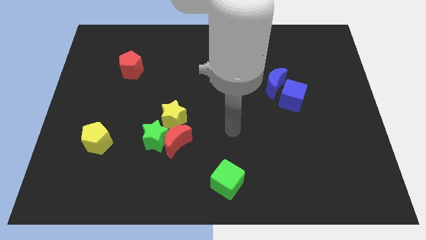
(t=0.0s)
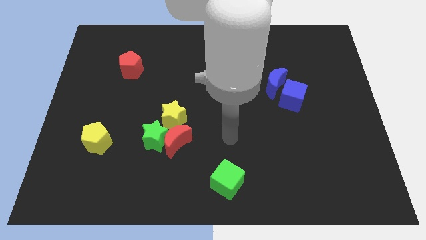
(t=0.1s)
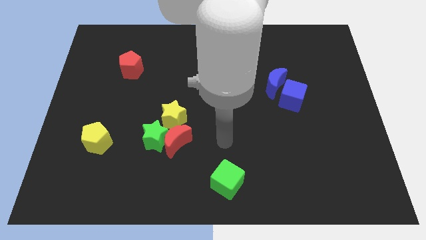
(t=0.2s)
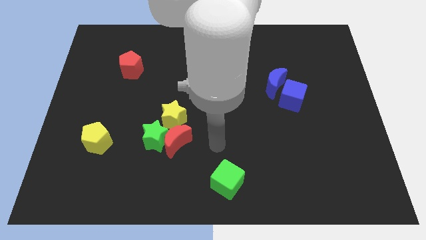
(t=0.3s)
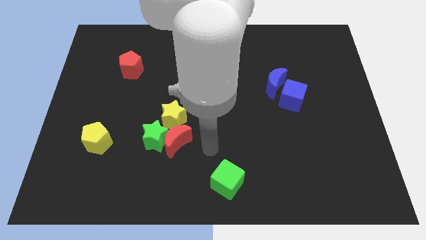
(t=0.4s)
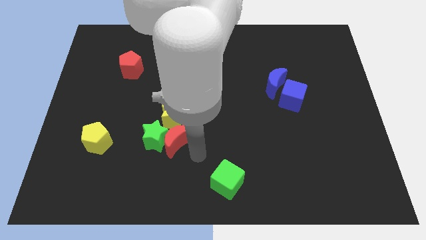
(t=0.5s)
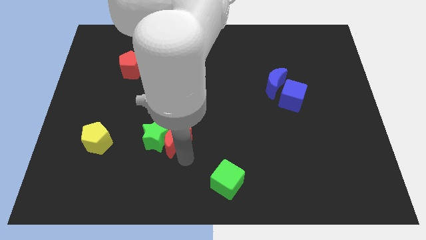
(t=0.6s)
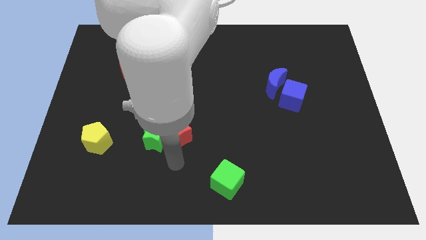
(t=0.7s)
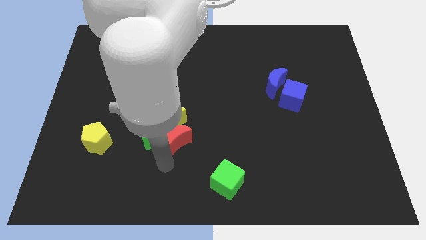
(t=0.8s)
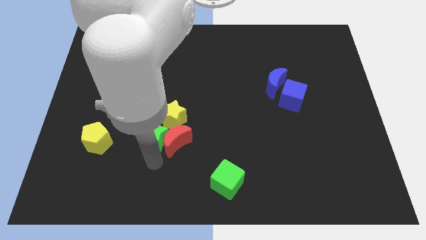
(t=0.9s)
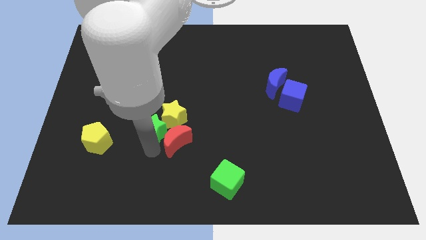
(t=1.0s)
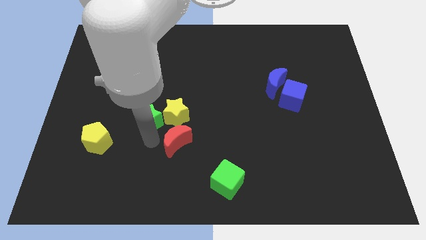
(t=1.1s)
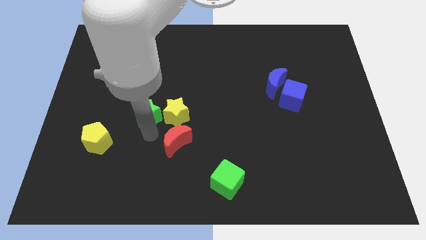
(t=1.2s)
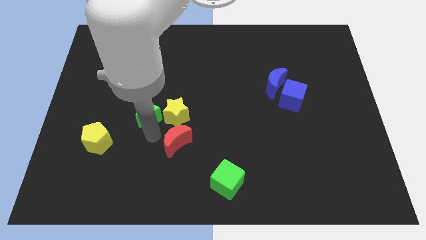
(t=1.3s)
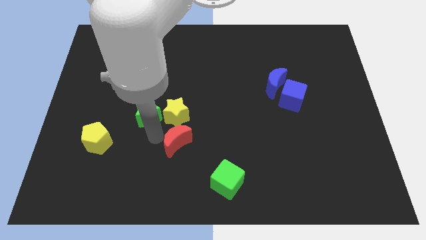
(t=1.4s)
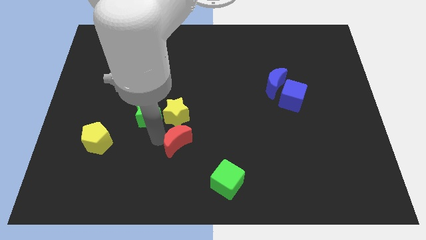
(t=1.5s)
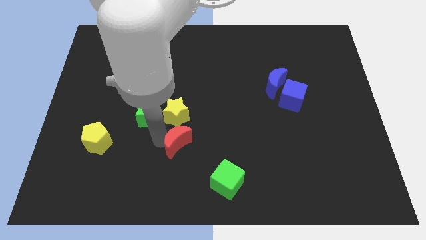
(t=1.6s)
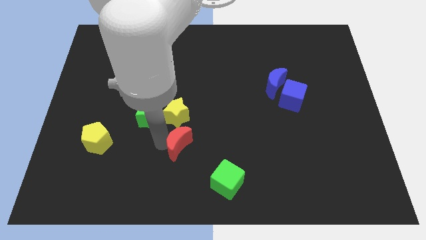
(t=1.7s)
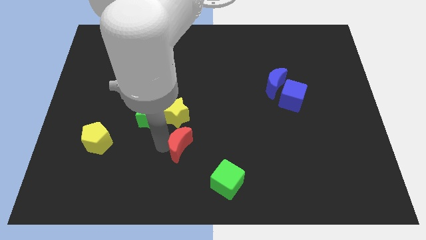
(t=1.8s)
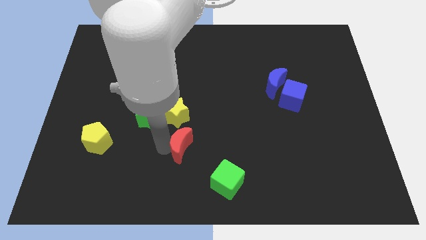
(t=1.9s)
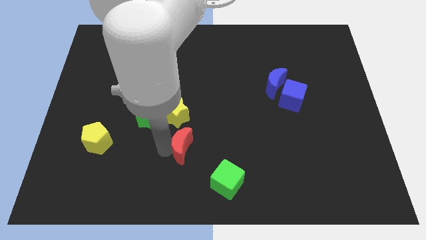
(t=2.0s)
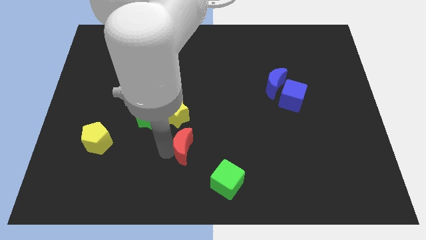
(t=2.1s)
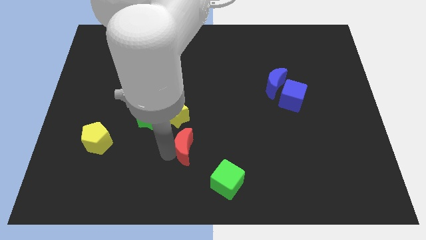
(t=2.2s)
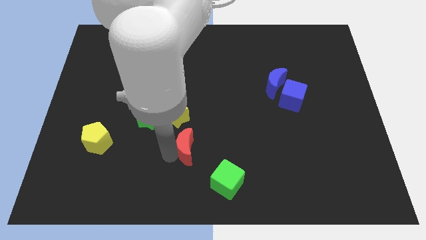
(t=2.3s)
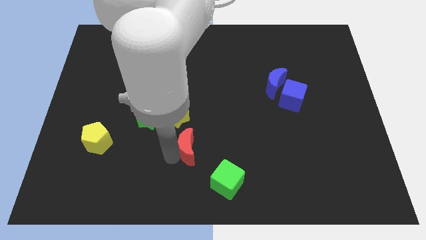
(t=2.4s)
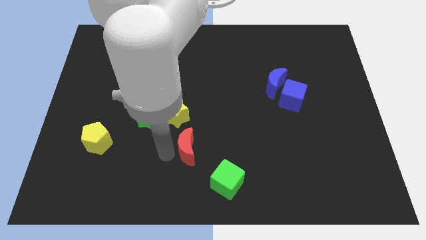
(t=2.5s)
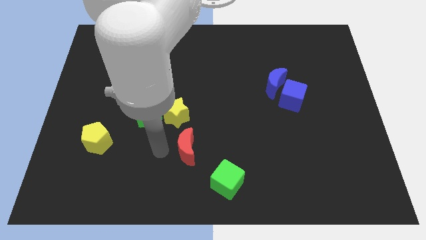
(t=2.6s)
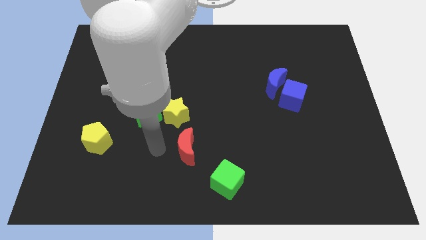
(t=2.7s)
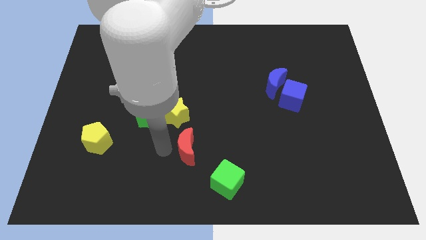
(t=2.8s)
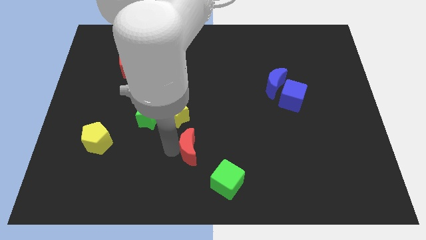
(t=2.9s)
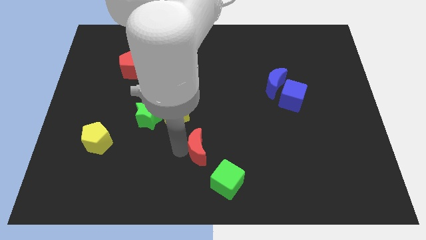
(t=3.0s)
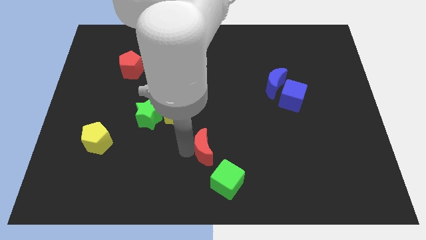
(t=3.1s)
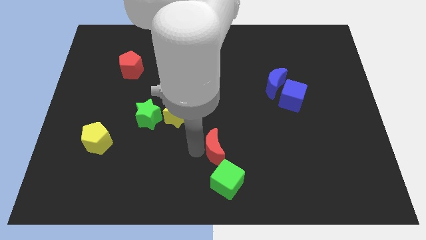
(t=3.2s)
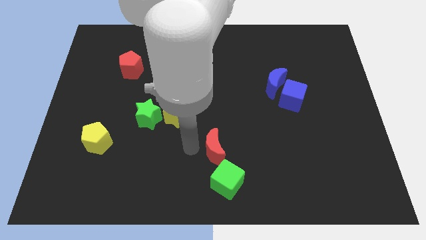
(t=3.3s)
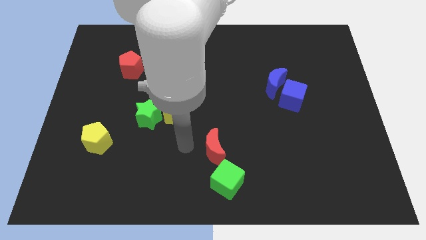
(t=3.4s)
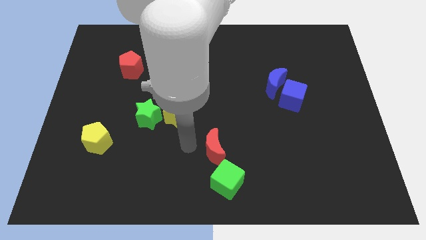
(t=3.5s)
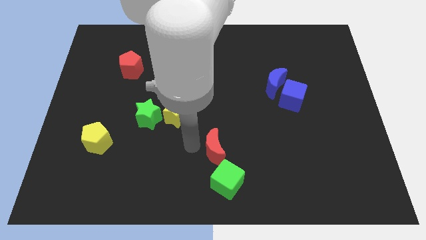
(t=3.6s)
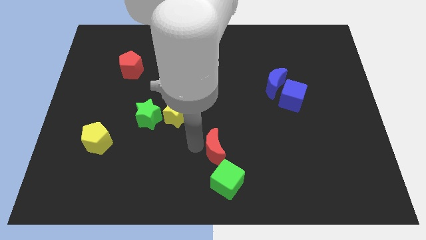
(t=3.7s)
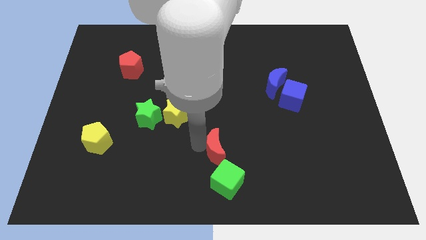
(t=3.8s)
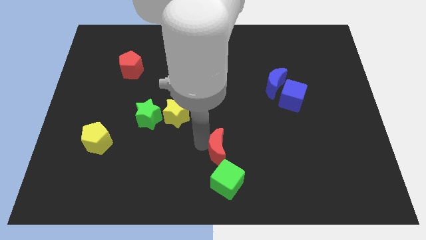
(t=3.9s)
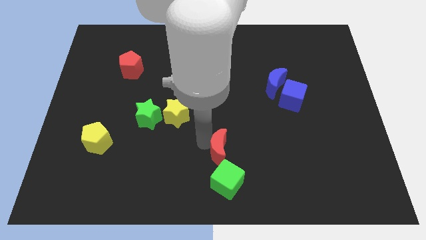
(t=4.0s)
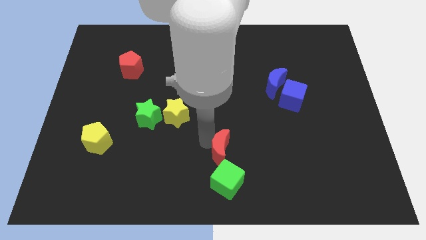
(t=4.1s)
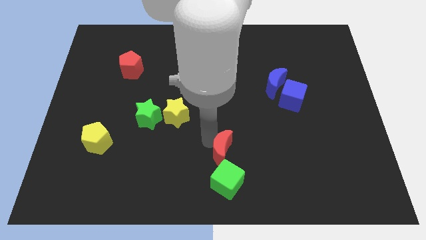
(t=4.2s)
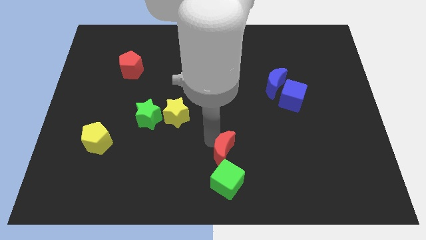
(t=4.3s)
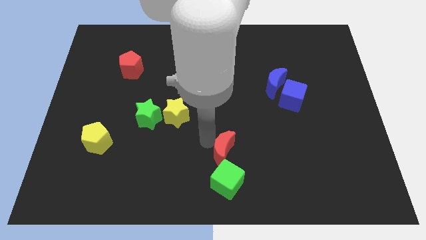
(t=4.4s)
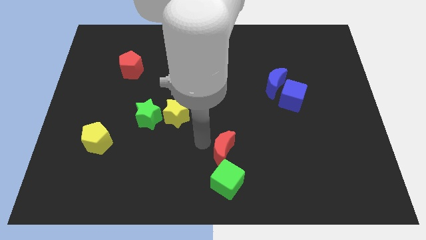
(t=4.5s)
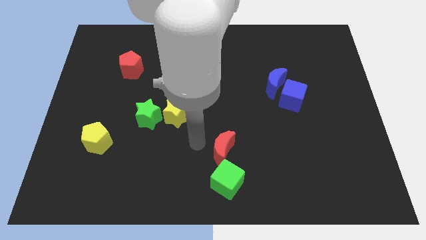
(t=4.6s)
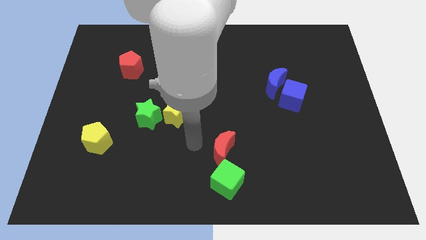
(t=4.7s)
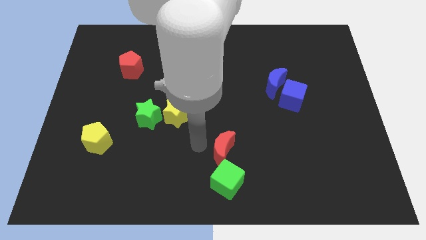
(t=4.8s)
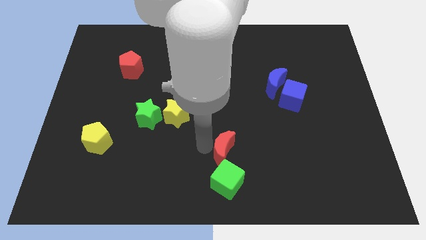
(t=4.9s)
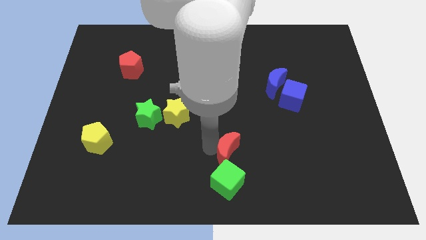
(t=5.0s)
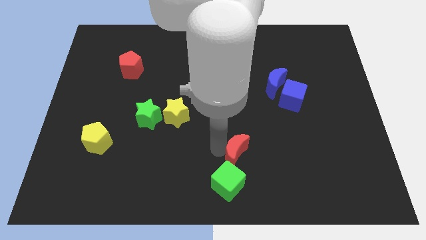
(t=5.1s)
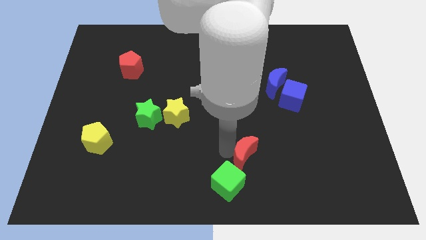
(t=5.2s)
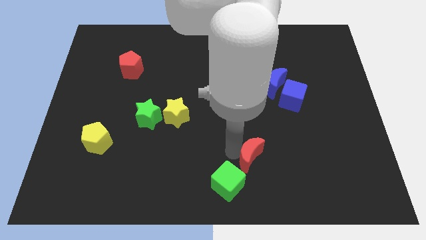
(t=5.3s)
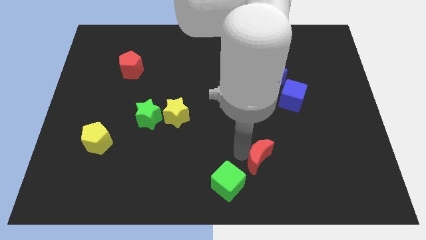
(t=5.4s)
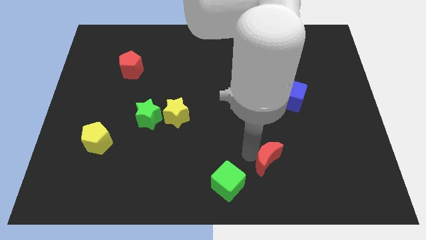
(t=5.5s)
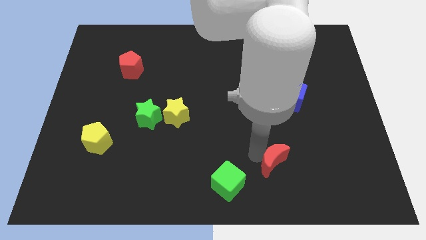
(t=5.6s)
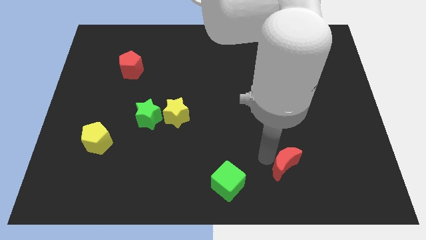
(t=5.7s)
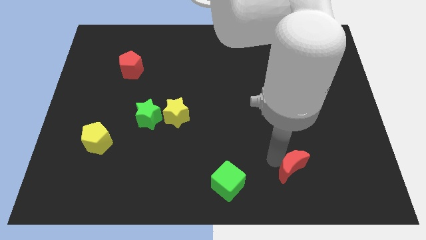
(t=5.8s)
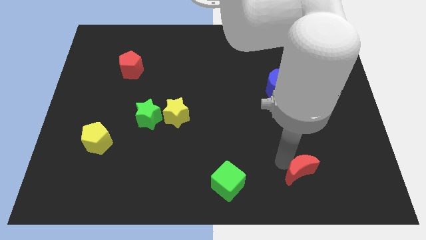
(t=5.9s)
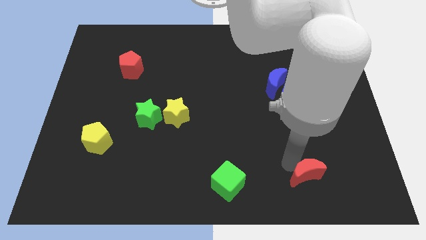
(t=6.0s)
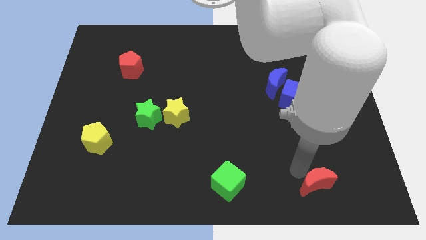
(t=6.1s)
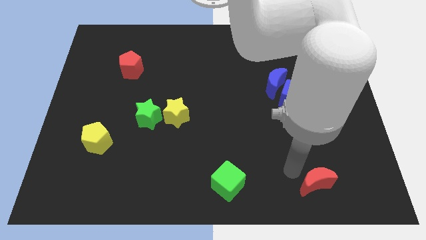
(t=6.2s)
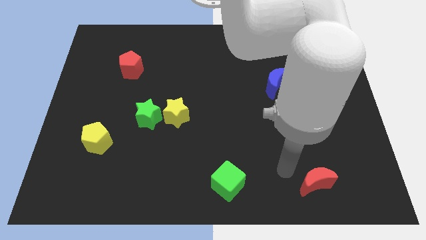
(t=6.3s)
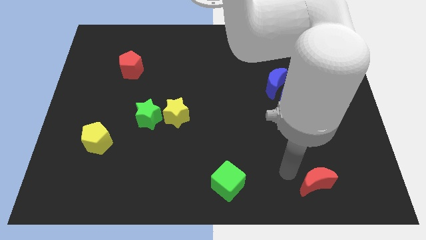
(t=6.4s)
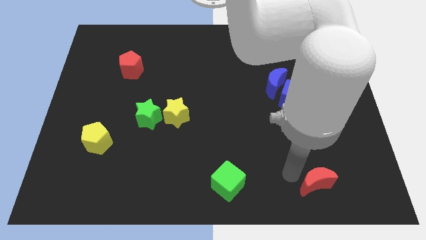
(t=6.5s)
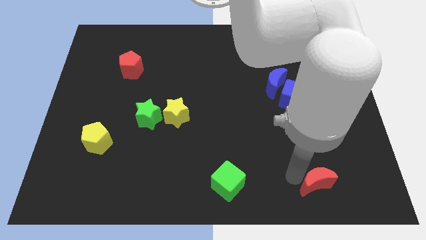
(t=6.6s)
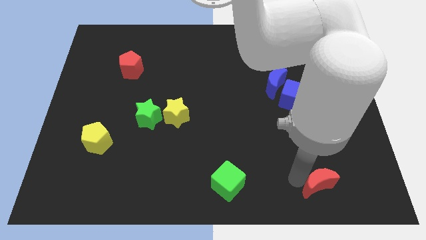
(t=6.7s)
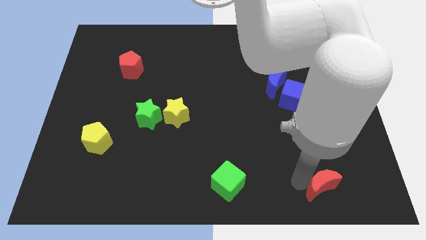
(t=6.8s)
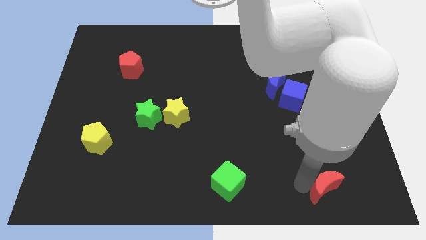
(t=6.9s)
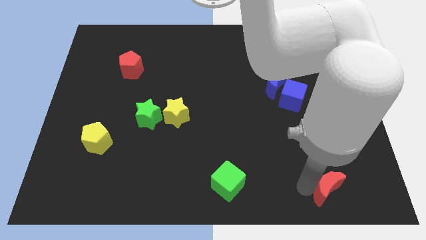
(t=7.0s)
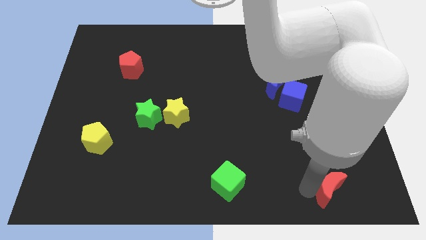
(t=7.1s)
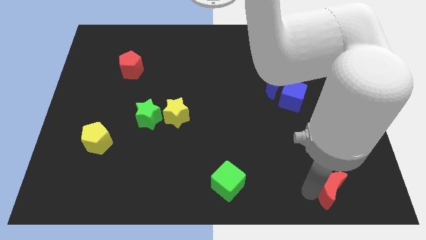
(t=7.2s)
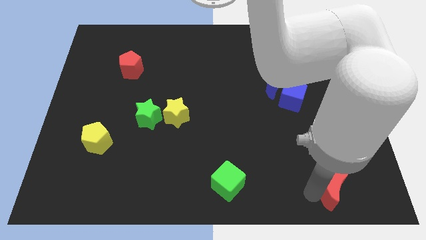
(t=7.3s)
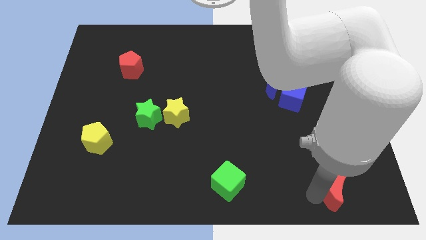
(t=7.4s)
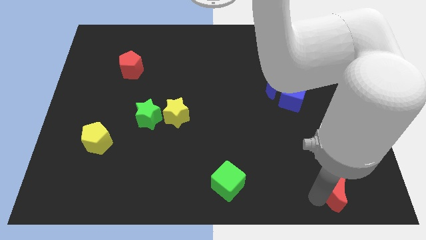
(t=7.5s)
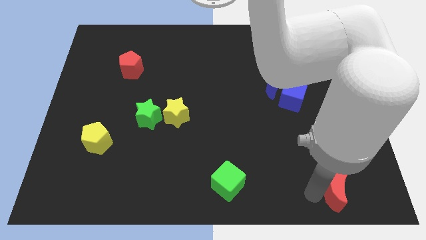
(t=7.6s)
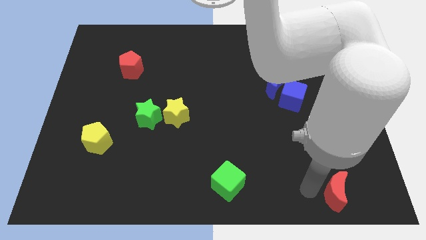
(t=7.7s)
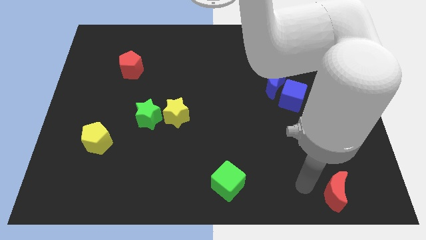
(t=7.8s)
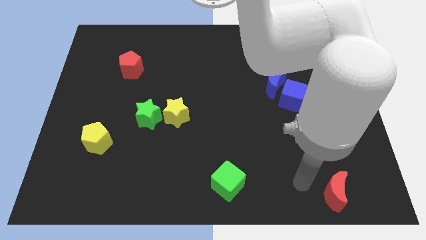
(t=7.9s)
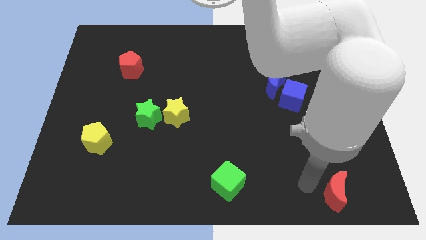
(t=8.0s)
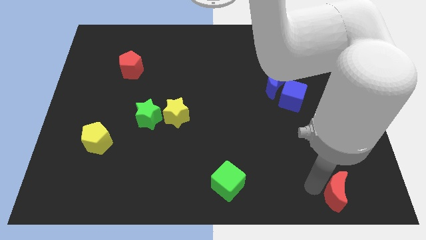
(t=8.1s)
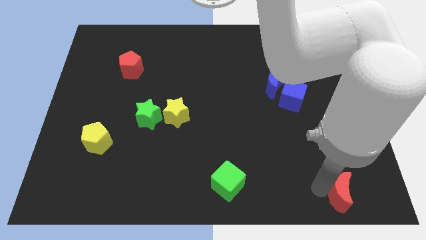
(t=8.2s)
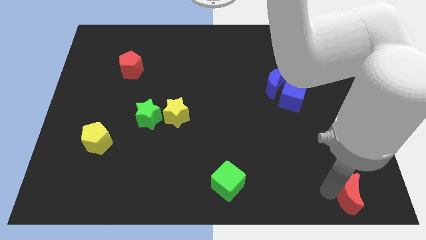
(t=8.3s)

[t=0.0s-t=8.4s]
slide the red moon to the bottom right
